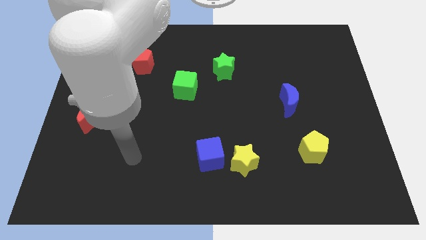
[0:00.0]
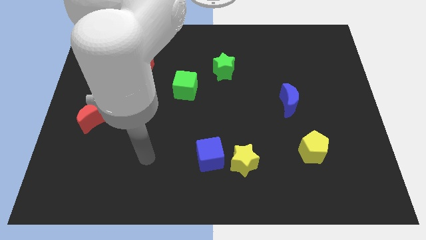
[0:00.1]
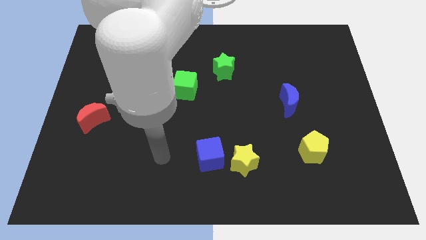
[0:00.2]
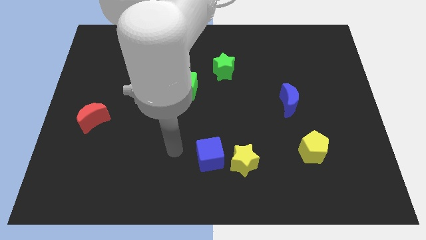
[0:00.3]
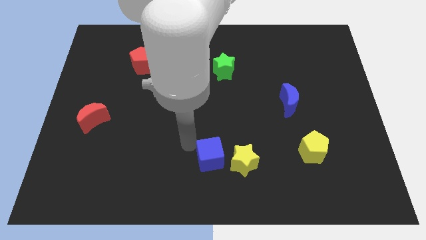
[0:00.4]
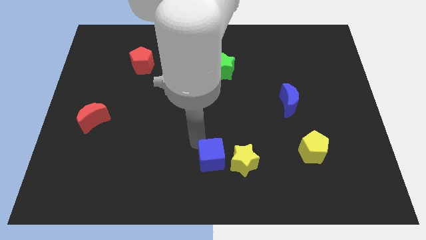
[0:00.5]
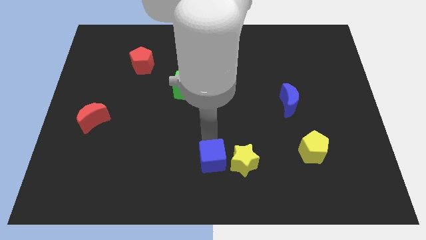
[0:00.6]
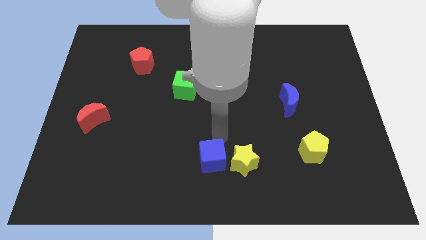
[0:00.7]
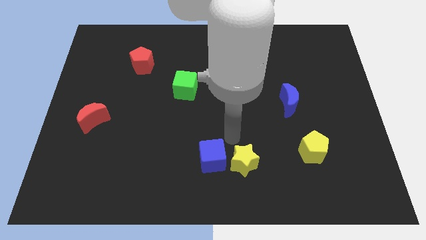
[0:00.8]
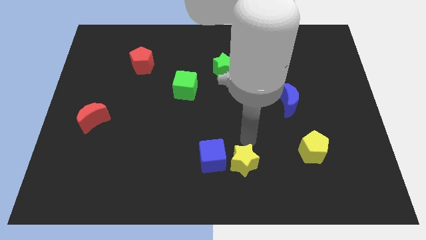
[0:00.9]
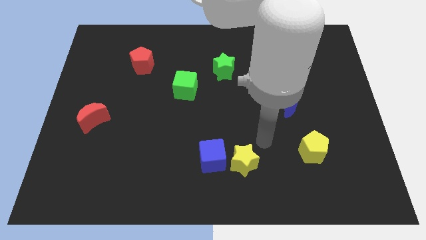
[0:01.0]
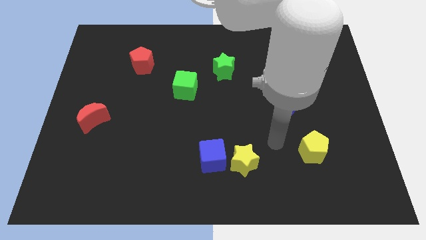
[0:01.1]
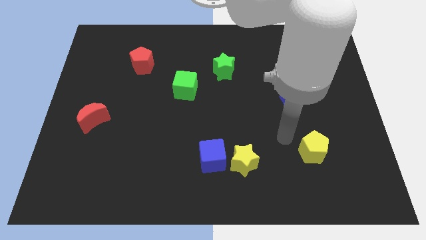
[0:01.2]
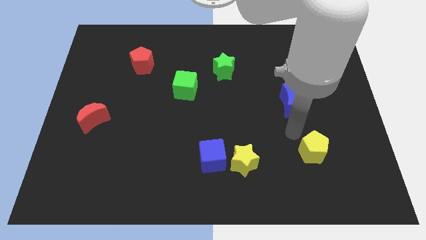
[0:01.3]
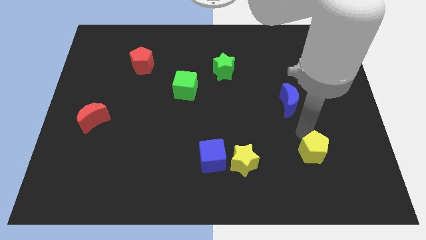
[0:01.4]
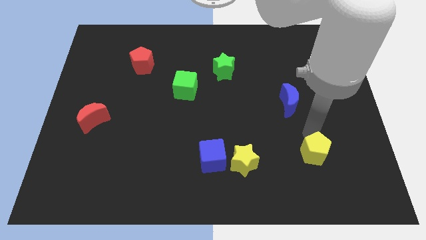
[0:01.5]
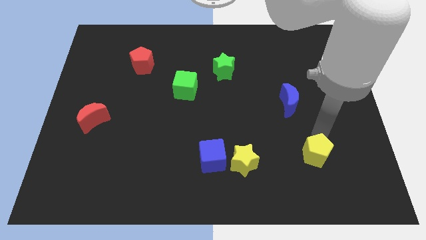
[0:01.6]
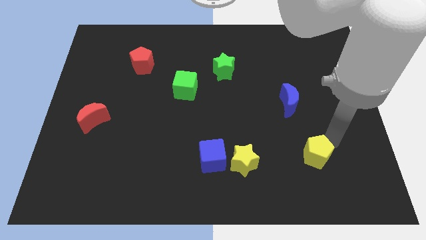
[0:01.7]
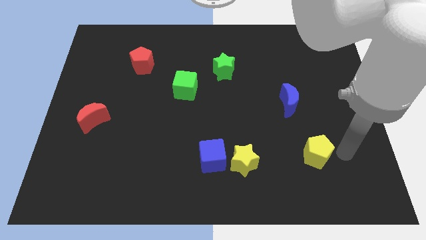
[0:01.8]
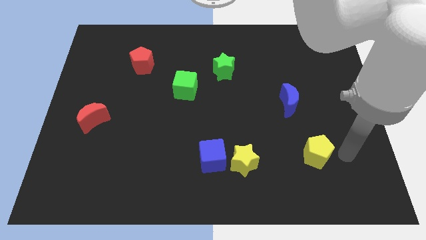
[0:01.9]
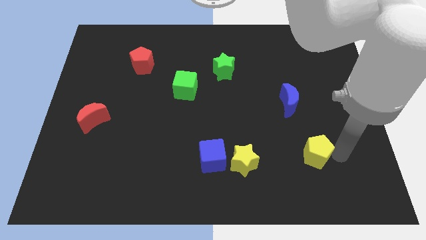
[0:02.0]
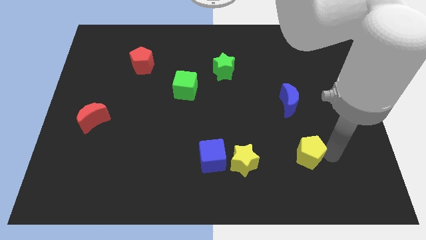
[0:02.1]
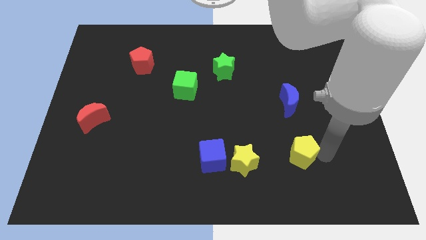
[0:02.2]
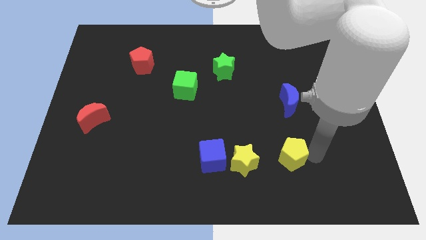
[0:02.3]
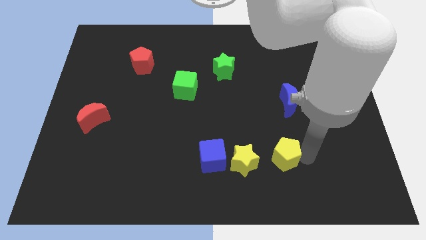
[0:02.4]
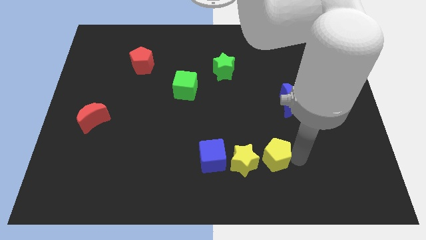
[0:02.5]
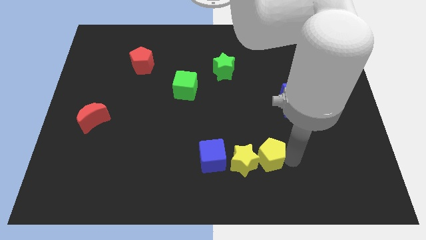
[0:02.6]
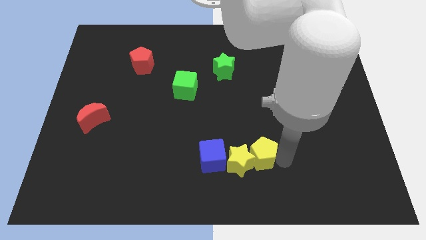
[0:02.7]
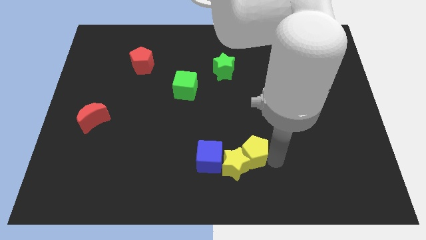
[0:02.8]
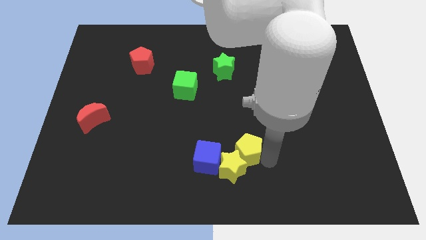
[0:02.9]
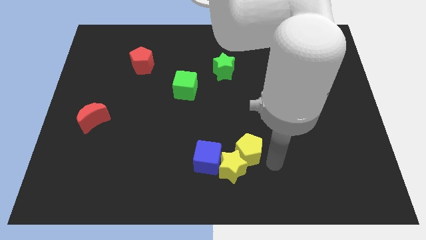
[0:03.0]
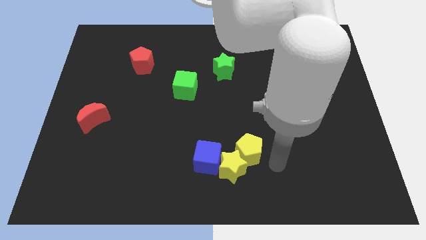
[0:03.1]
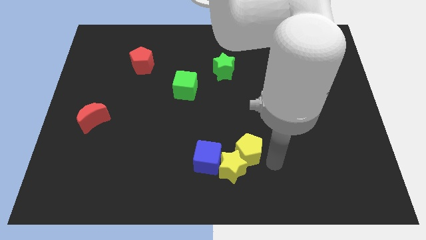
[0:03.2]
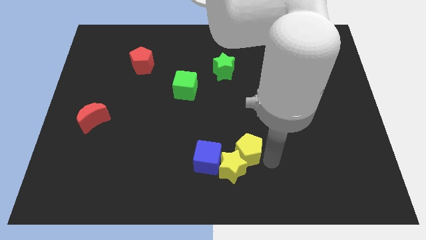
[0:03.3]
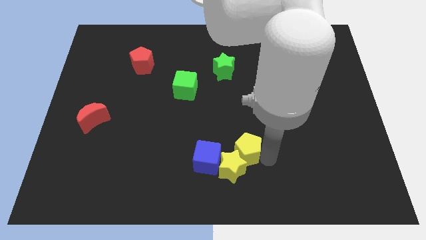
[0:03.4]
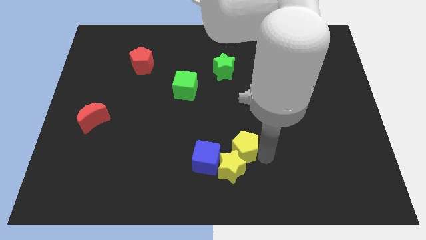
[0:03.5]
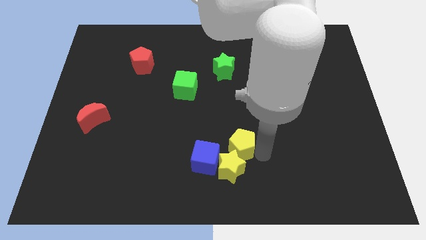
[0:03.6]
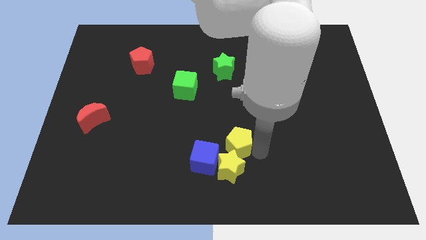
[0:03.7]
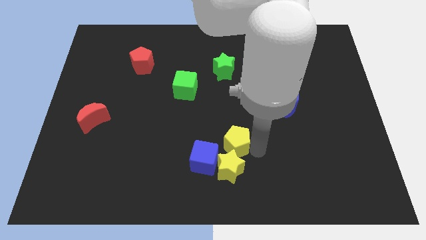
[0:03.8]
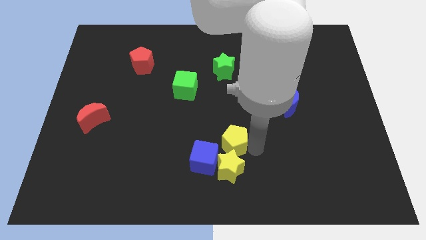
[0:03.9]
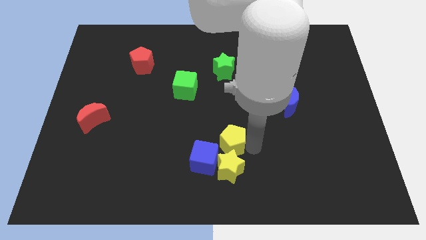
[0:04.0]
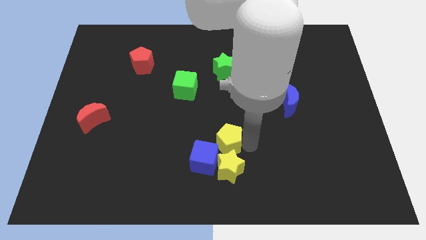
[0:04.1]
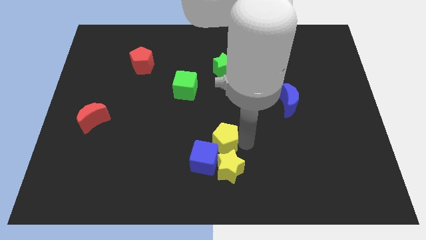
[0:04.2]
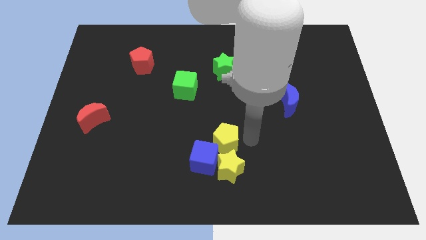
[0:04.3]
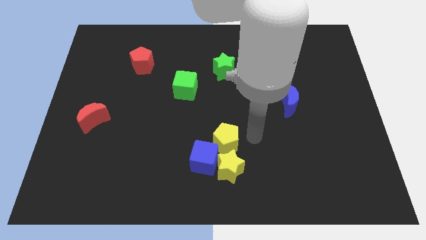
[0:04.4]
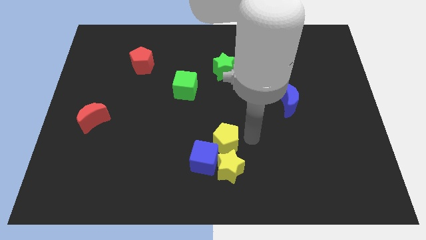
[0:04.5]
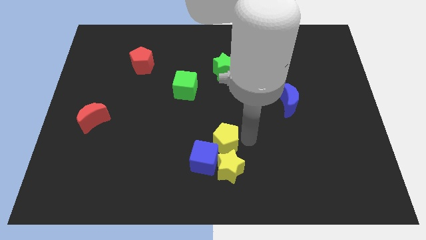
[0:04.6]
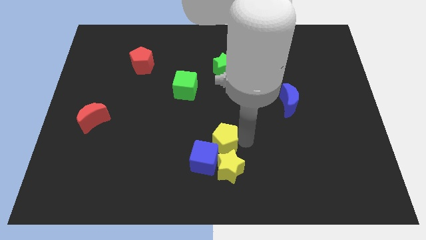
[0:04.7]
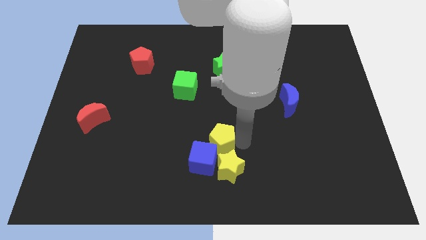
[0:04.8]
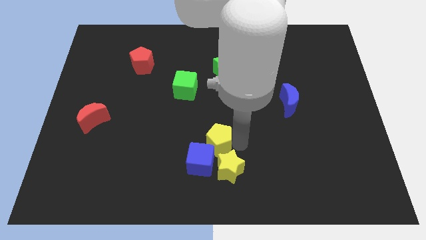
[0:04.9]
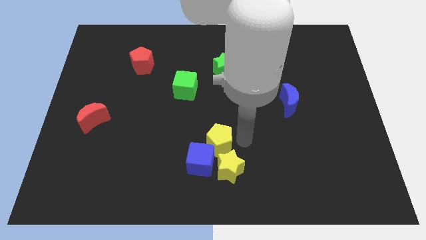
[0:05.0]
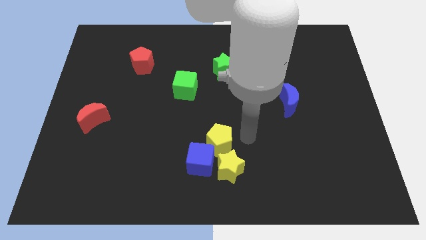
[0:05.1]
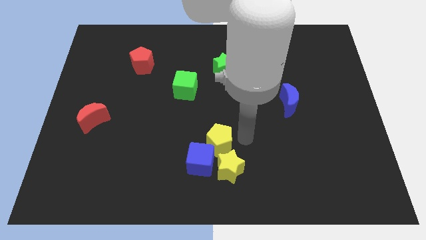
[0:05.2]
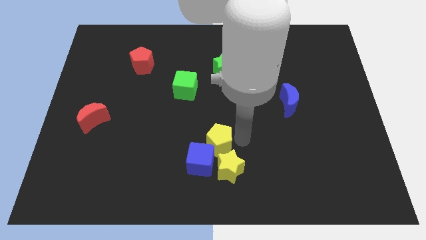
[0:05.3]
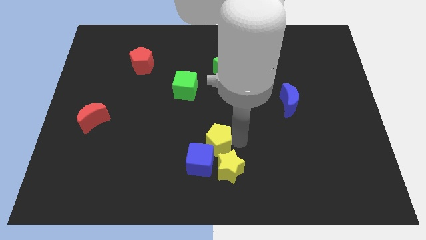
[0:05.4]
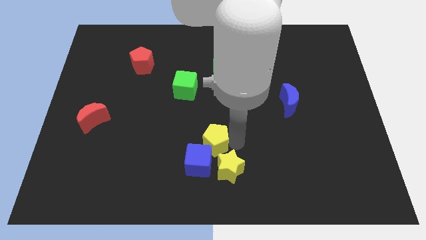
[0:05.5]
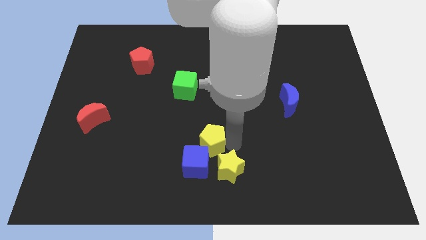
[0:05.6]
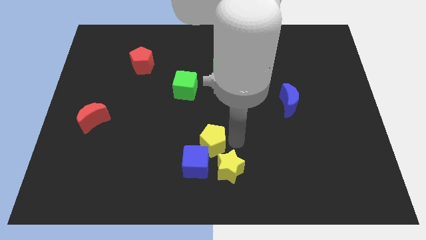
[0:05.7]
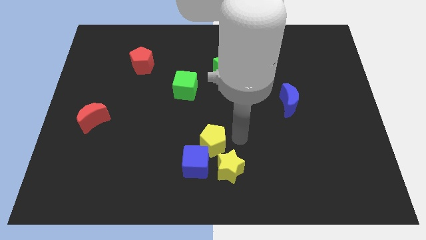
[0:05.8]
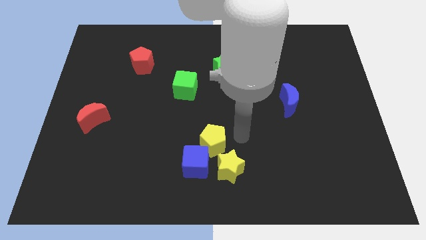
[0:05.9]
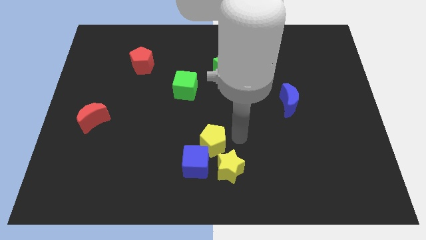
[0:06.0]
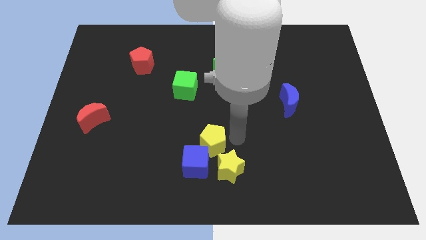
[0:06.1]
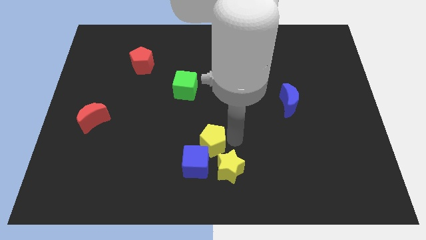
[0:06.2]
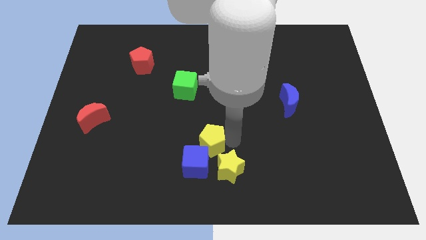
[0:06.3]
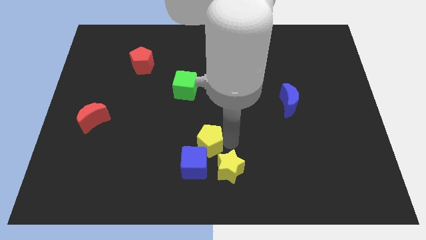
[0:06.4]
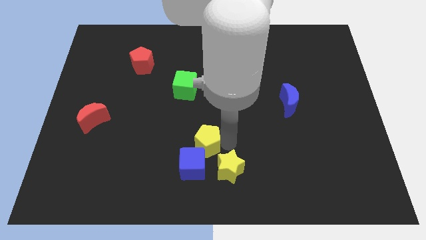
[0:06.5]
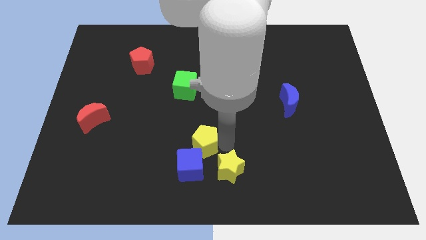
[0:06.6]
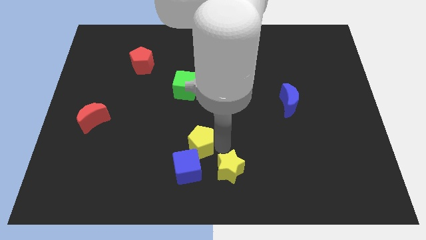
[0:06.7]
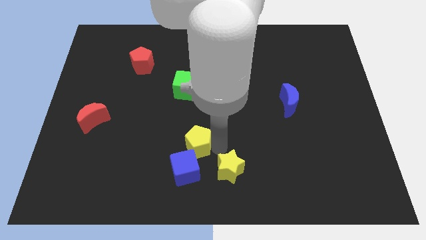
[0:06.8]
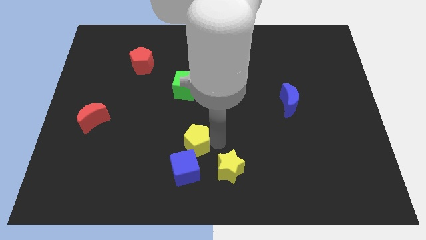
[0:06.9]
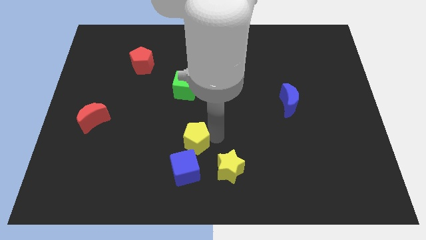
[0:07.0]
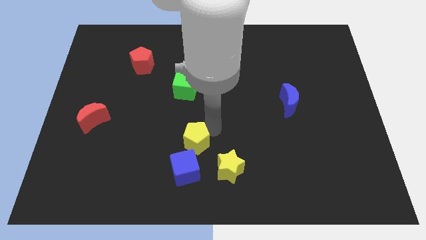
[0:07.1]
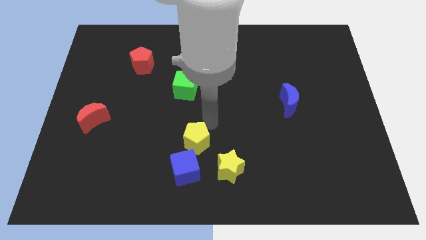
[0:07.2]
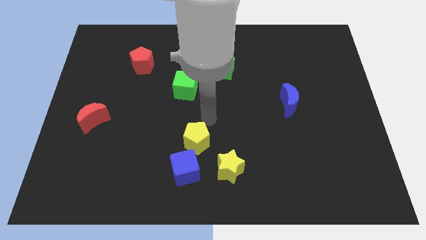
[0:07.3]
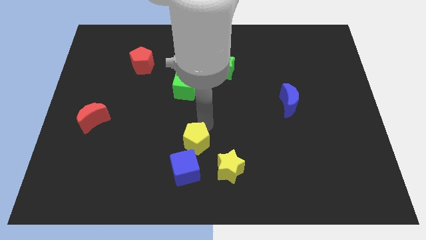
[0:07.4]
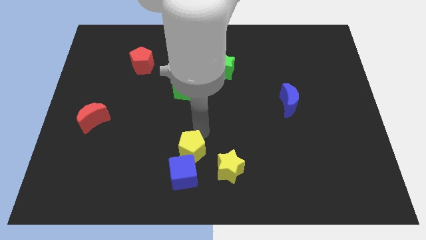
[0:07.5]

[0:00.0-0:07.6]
put the yellow pentagon left of the yellow star
